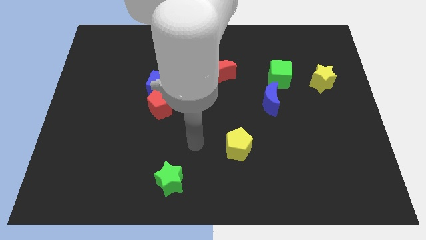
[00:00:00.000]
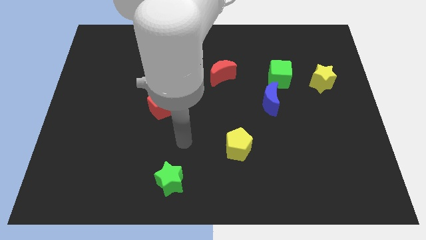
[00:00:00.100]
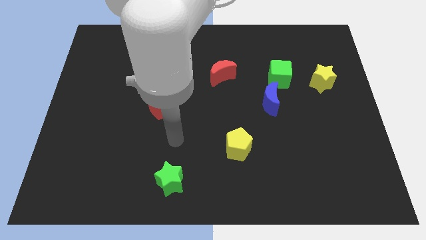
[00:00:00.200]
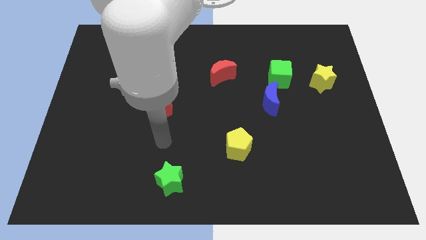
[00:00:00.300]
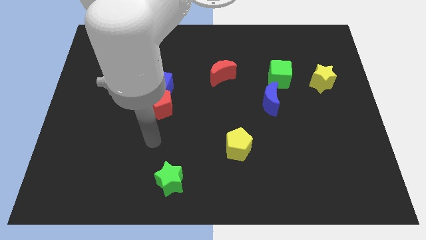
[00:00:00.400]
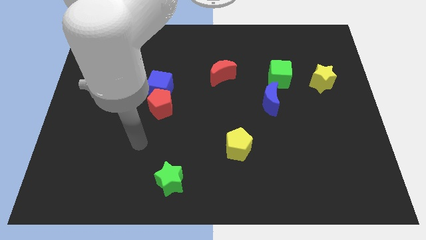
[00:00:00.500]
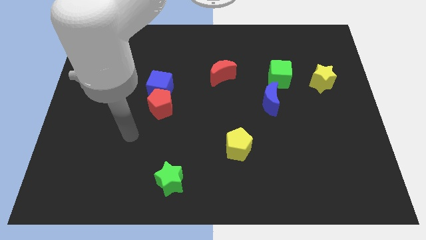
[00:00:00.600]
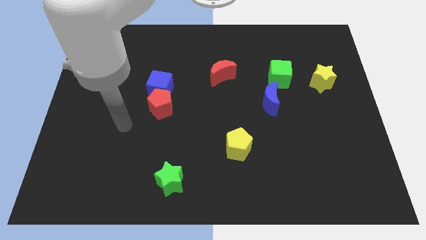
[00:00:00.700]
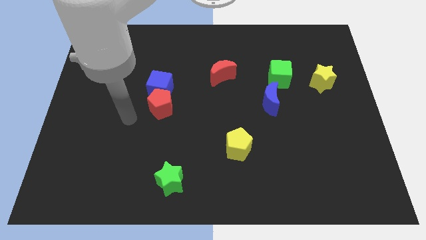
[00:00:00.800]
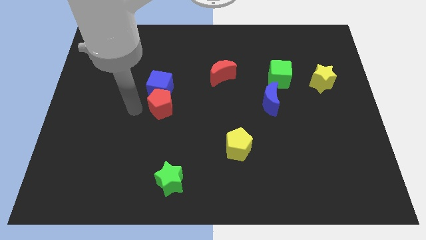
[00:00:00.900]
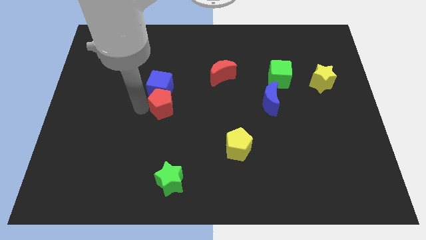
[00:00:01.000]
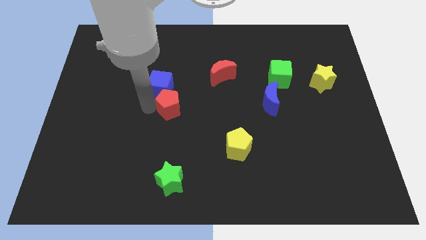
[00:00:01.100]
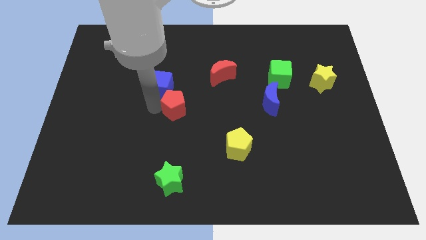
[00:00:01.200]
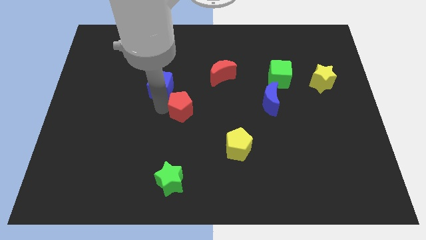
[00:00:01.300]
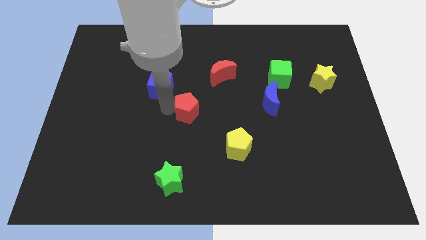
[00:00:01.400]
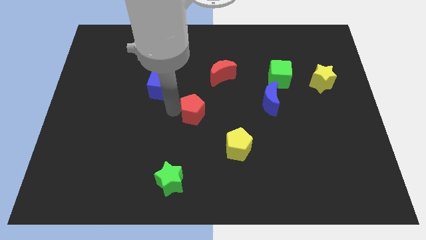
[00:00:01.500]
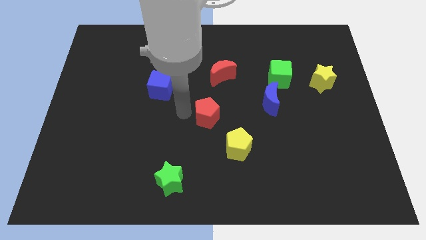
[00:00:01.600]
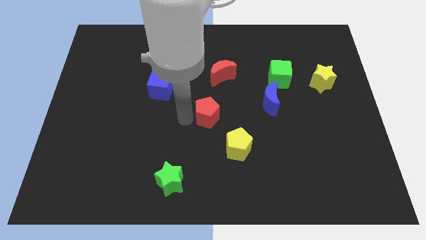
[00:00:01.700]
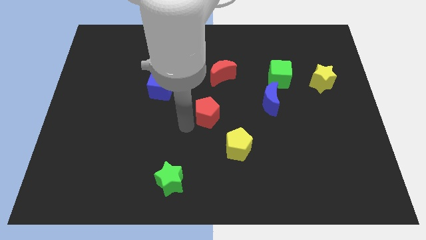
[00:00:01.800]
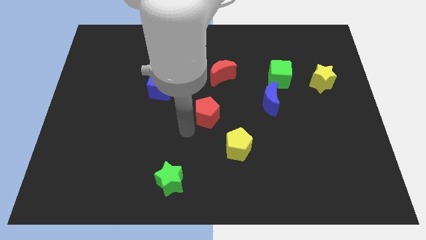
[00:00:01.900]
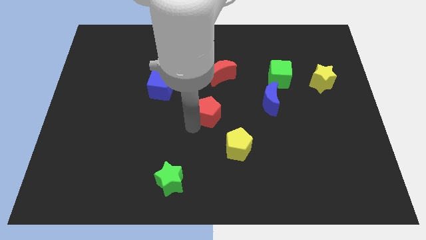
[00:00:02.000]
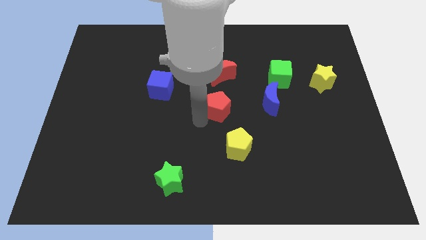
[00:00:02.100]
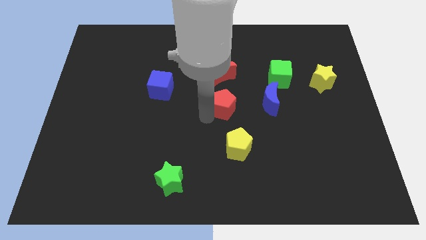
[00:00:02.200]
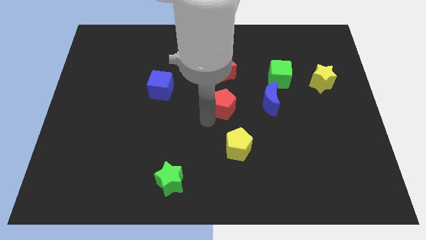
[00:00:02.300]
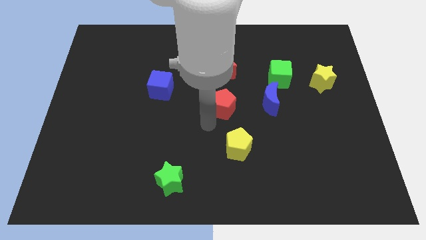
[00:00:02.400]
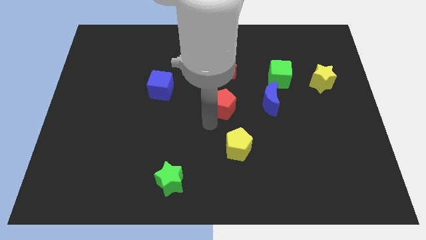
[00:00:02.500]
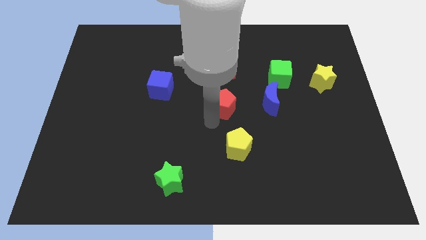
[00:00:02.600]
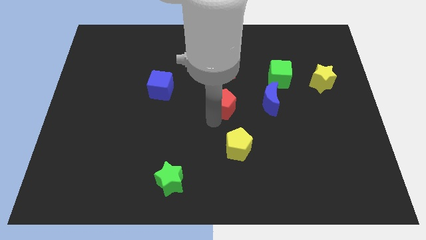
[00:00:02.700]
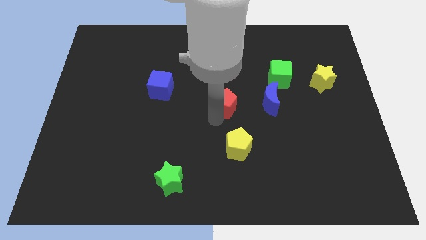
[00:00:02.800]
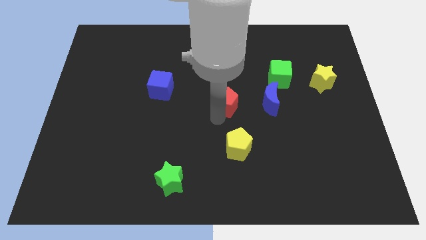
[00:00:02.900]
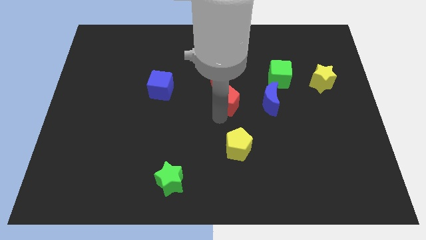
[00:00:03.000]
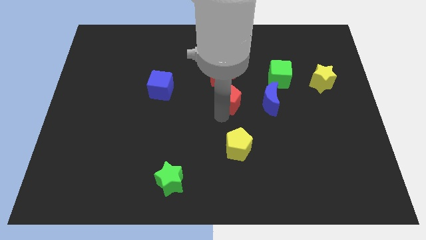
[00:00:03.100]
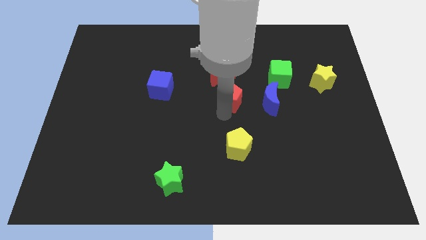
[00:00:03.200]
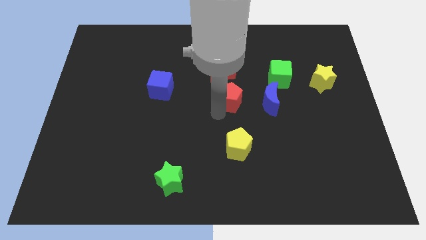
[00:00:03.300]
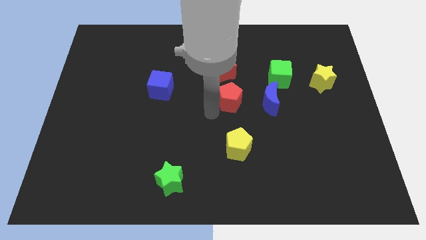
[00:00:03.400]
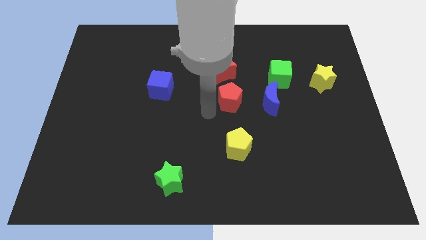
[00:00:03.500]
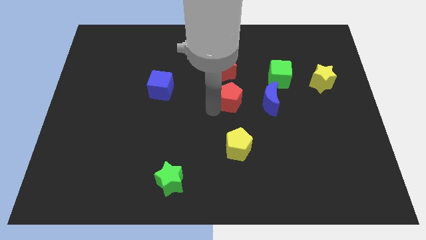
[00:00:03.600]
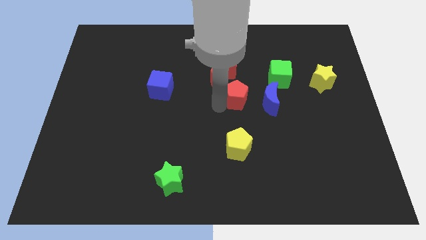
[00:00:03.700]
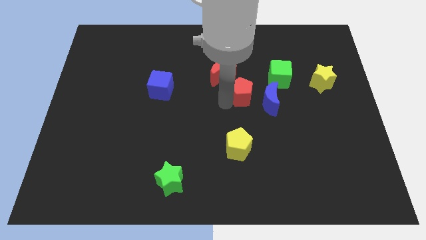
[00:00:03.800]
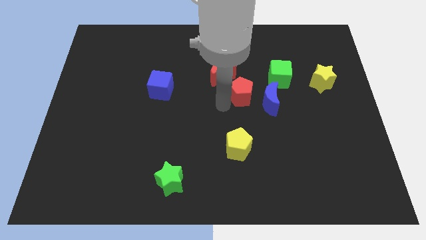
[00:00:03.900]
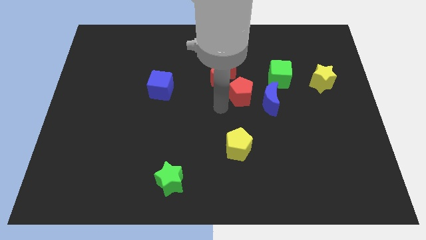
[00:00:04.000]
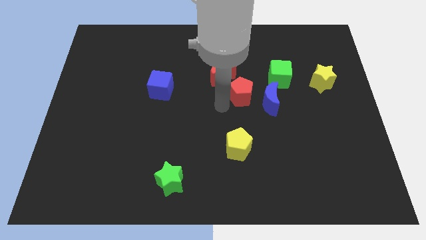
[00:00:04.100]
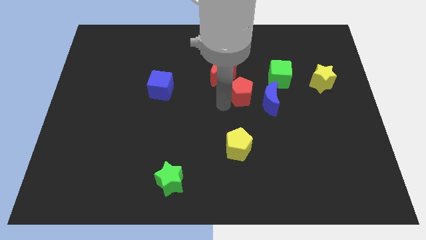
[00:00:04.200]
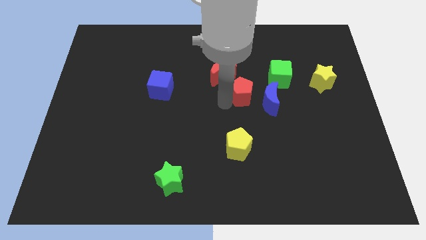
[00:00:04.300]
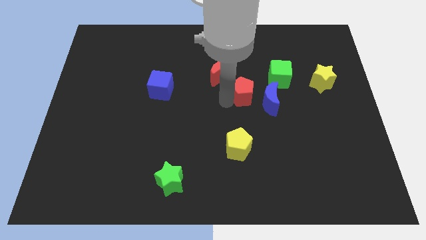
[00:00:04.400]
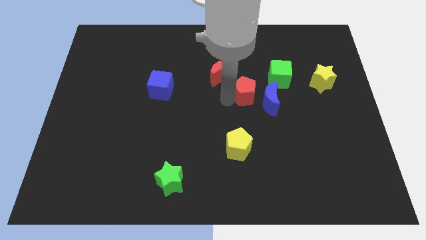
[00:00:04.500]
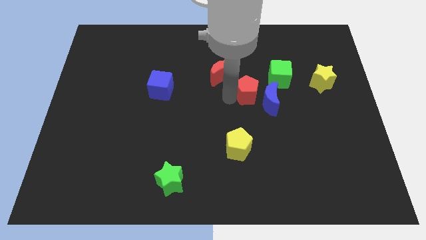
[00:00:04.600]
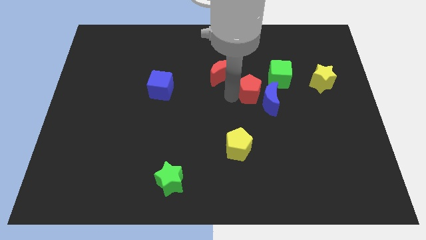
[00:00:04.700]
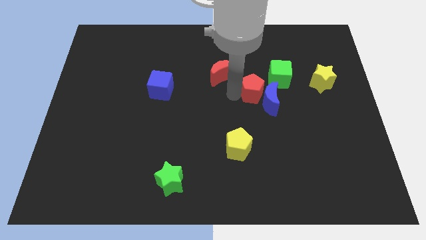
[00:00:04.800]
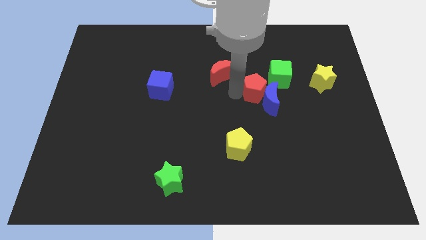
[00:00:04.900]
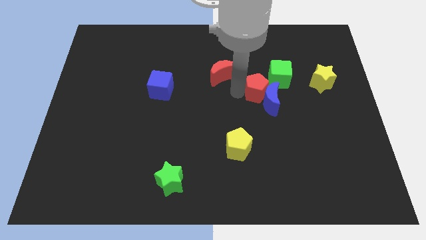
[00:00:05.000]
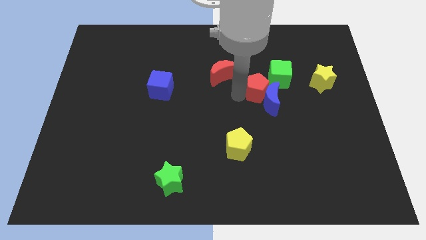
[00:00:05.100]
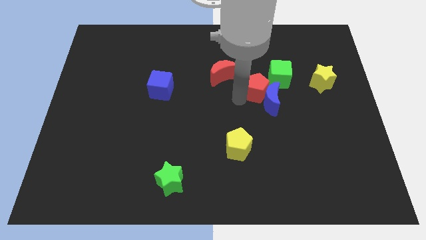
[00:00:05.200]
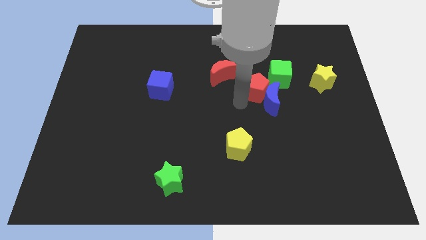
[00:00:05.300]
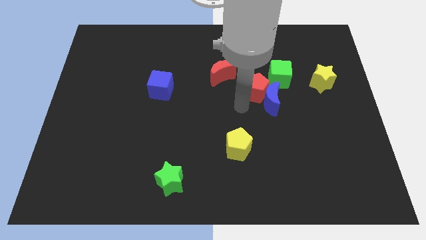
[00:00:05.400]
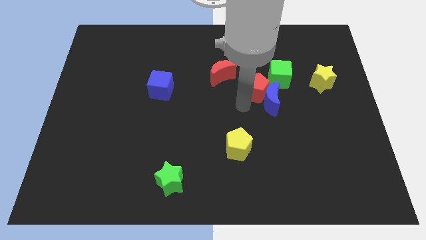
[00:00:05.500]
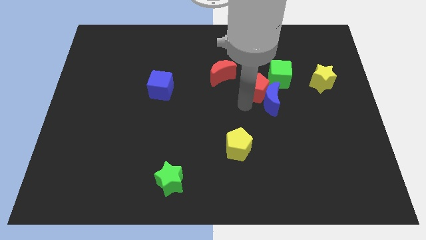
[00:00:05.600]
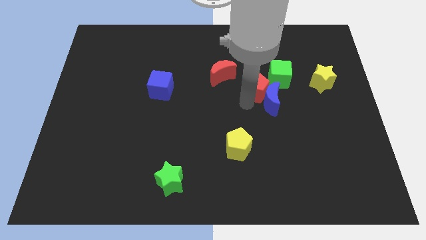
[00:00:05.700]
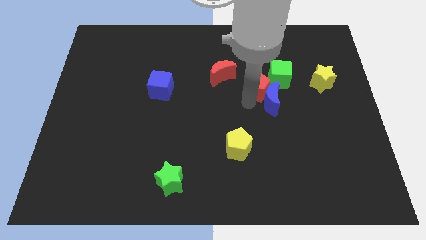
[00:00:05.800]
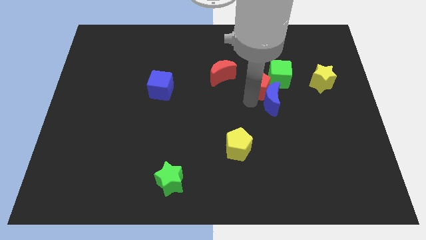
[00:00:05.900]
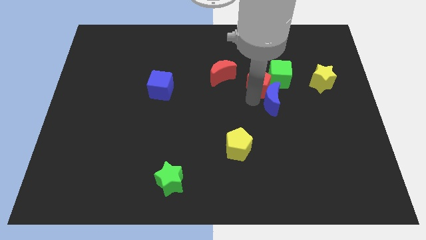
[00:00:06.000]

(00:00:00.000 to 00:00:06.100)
slide the red pentagon to the left of the yellow star
